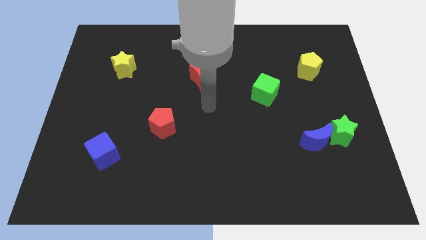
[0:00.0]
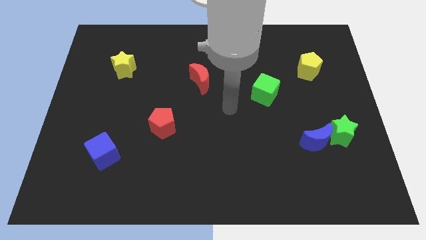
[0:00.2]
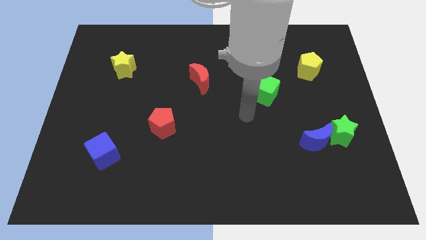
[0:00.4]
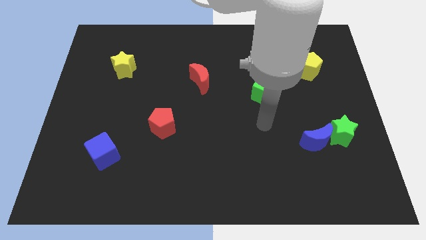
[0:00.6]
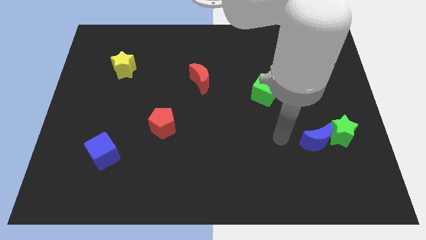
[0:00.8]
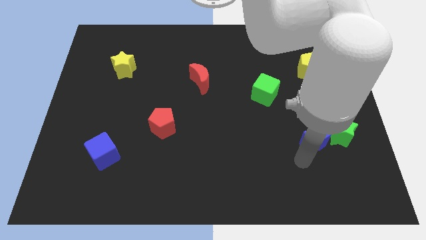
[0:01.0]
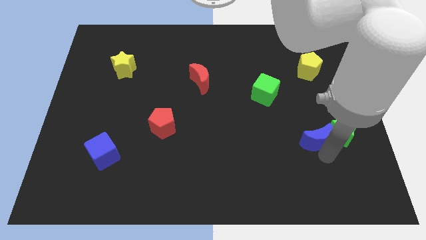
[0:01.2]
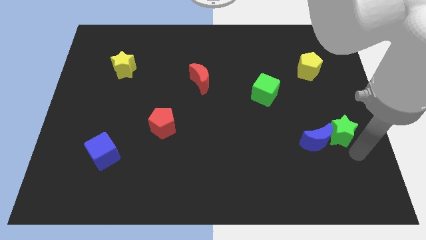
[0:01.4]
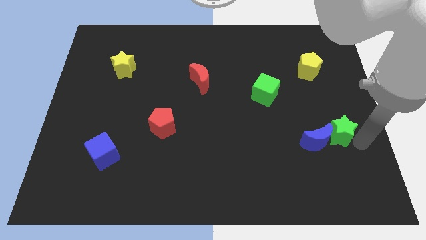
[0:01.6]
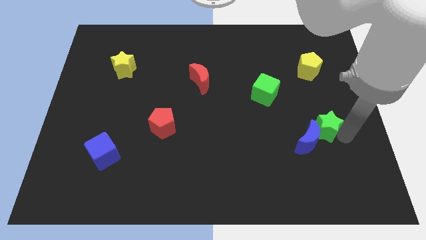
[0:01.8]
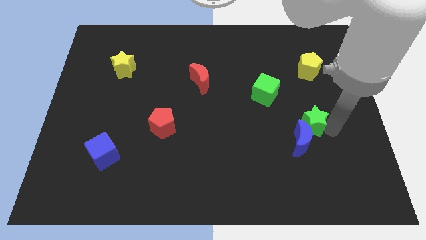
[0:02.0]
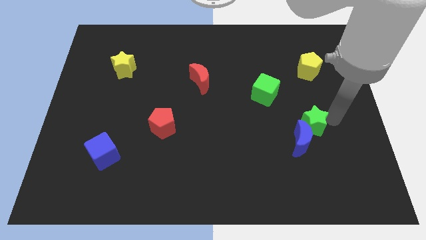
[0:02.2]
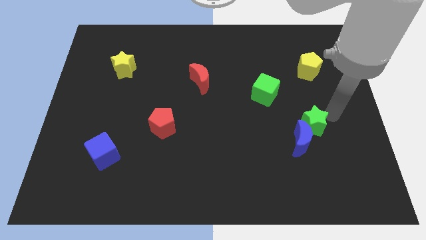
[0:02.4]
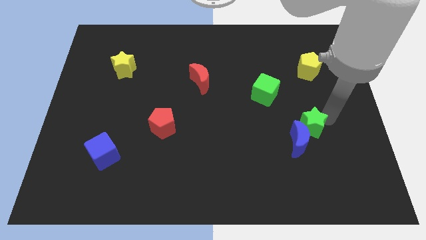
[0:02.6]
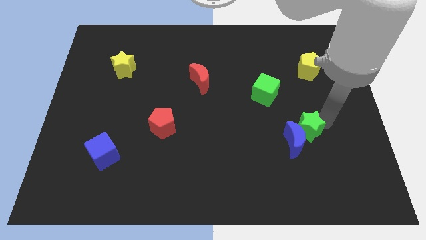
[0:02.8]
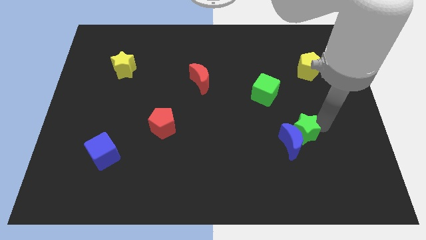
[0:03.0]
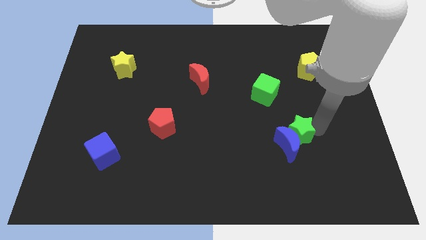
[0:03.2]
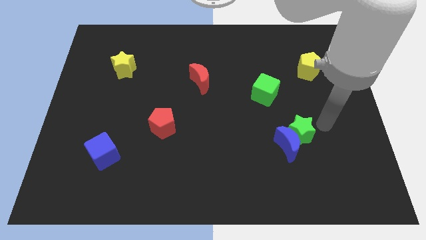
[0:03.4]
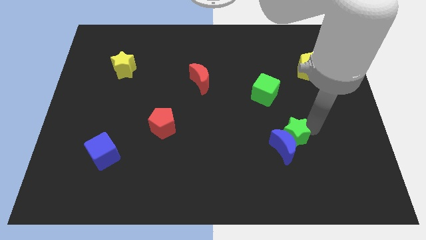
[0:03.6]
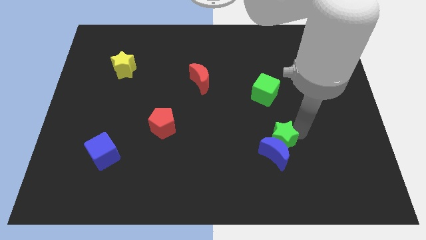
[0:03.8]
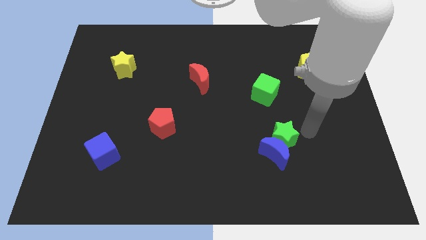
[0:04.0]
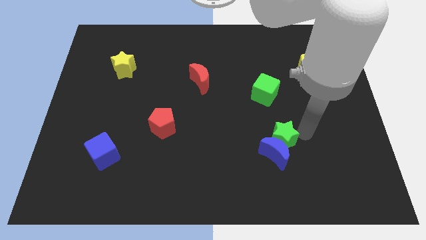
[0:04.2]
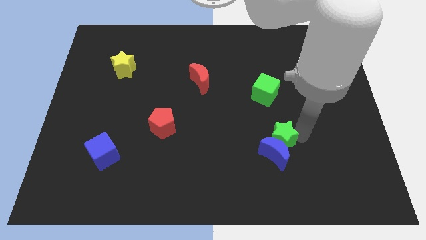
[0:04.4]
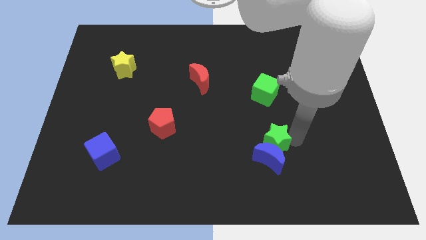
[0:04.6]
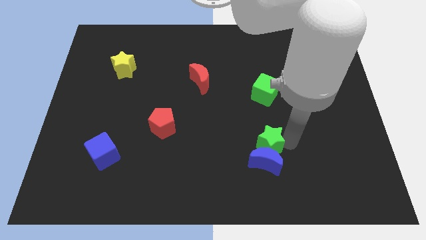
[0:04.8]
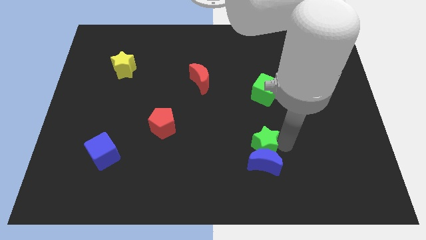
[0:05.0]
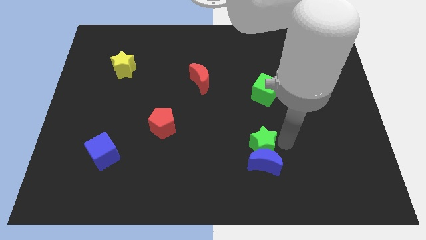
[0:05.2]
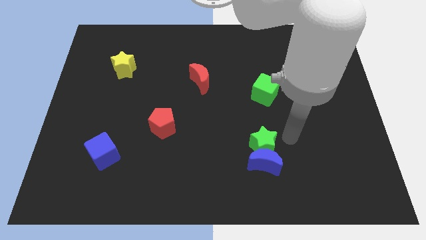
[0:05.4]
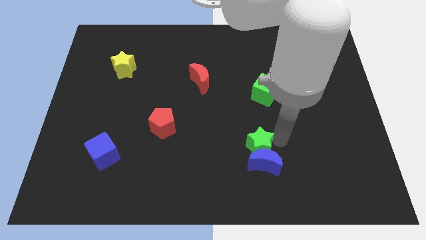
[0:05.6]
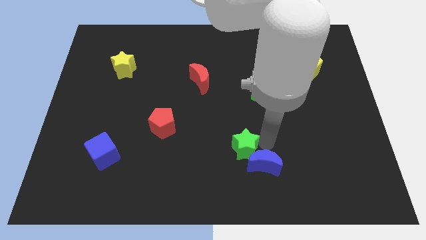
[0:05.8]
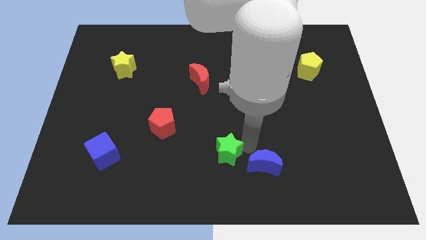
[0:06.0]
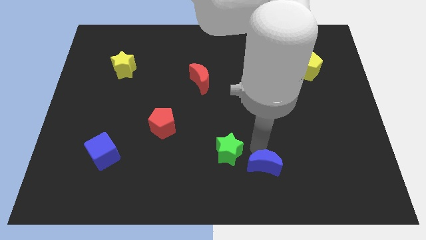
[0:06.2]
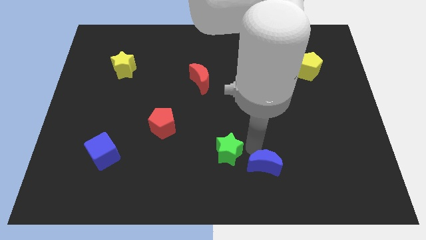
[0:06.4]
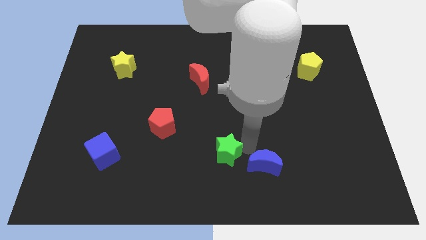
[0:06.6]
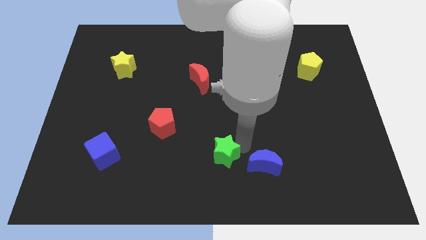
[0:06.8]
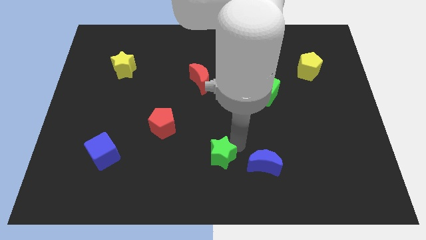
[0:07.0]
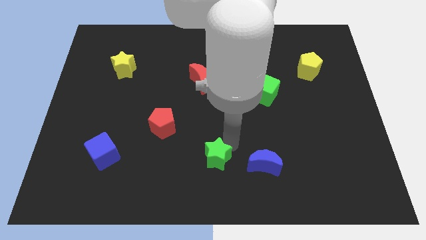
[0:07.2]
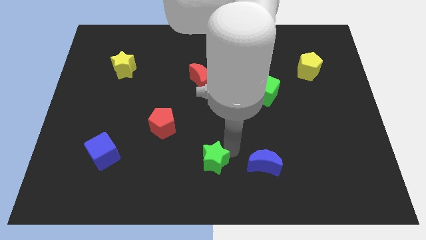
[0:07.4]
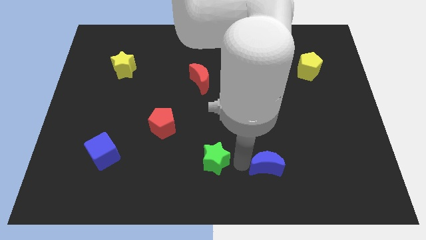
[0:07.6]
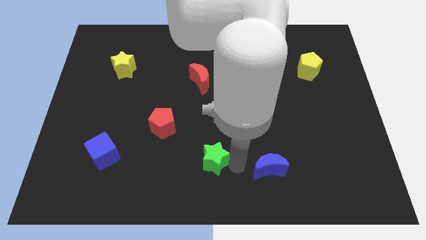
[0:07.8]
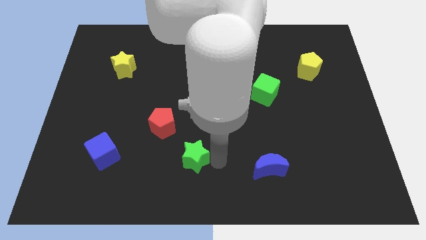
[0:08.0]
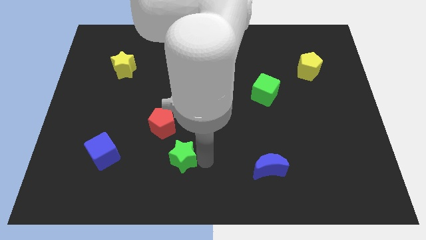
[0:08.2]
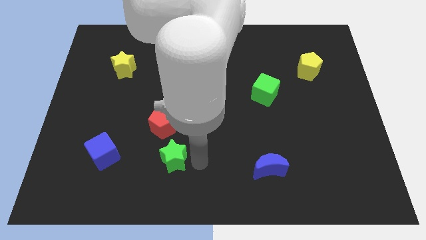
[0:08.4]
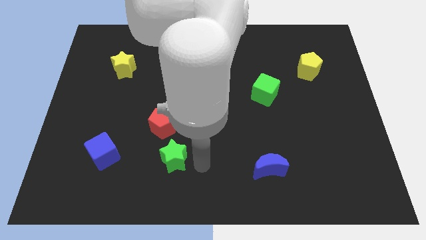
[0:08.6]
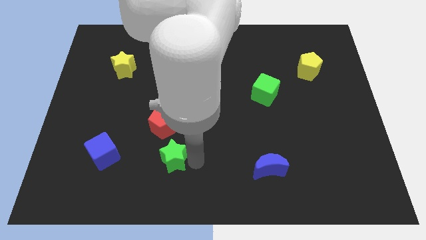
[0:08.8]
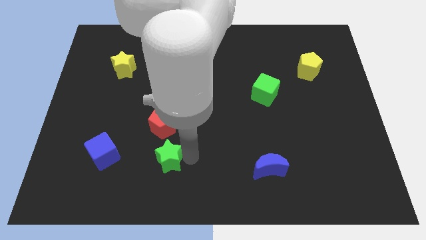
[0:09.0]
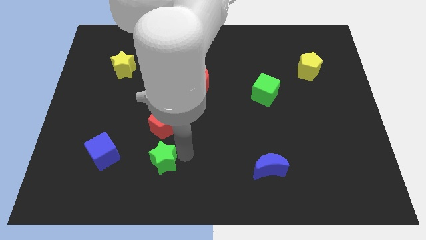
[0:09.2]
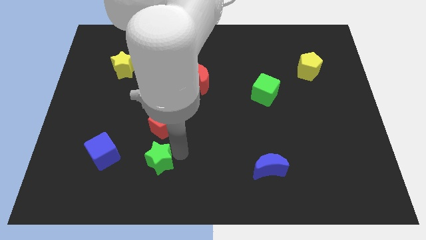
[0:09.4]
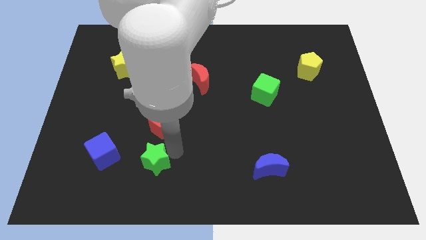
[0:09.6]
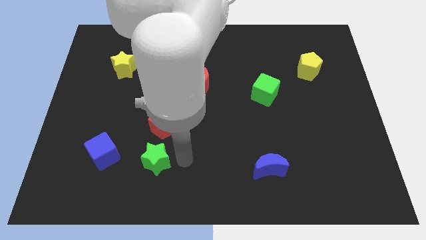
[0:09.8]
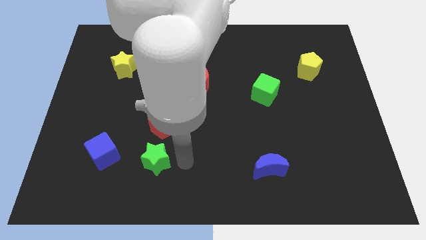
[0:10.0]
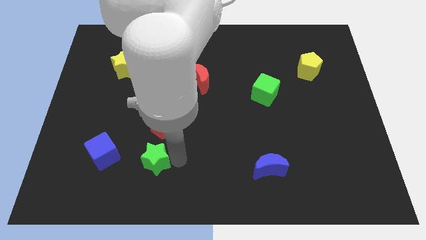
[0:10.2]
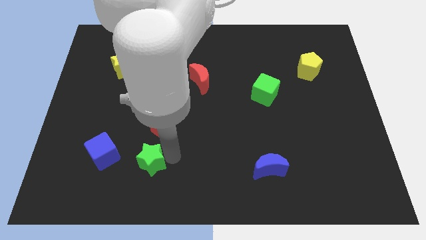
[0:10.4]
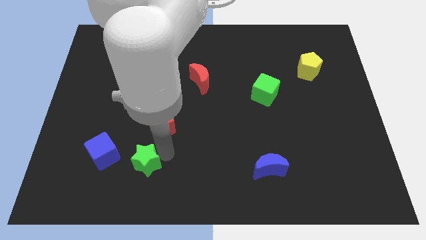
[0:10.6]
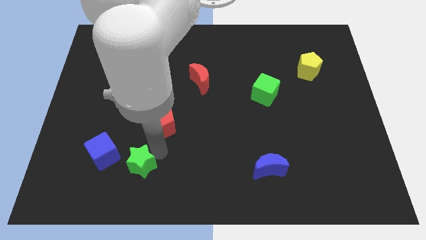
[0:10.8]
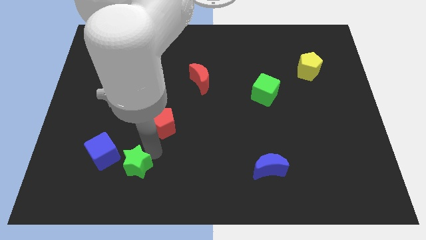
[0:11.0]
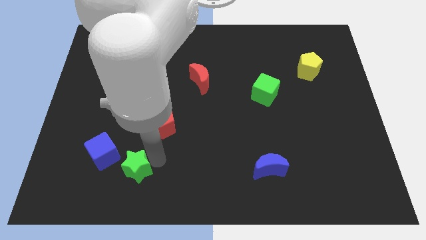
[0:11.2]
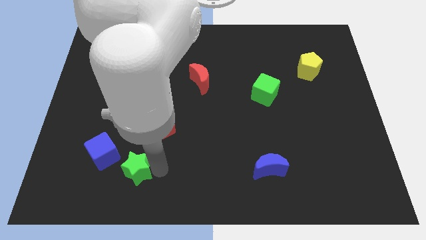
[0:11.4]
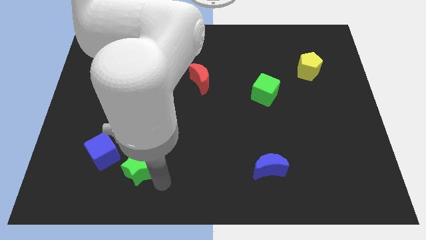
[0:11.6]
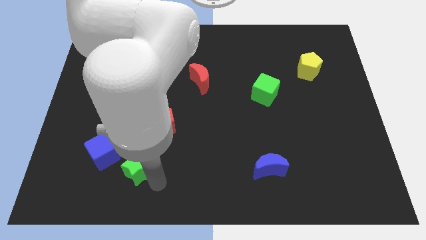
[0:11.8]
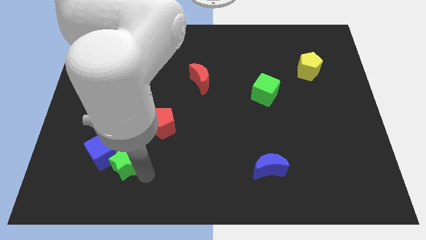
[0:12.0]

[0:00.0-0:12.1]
push the green star towards the blue cube

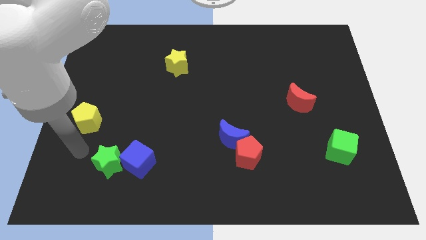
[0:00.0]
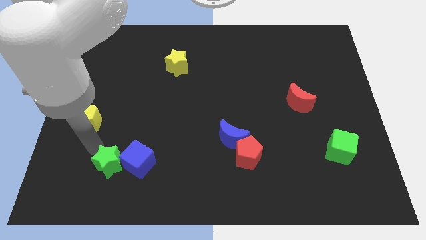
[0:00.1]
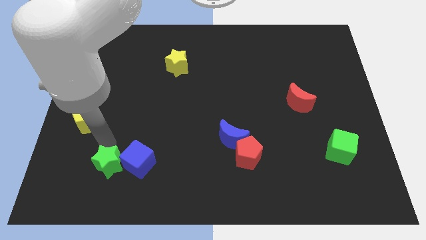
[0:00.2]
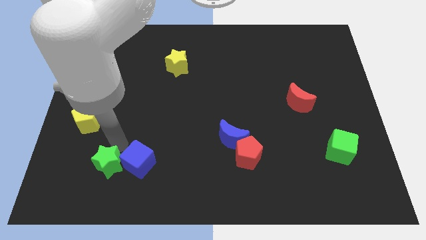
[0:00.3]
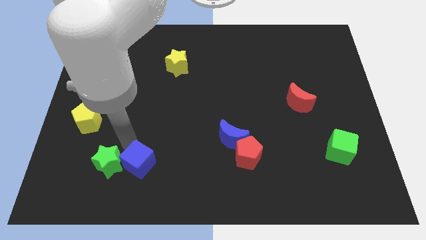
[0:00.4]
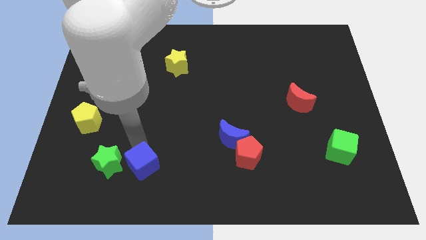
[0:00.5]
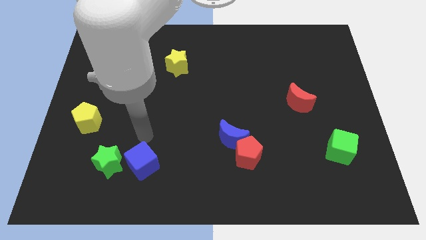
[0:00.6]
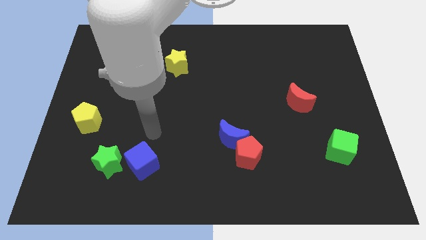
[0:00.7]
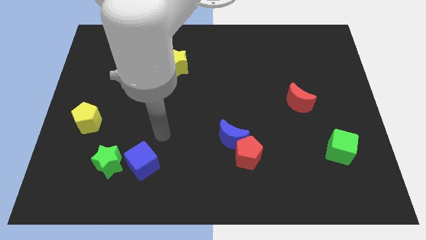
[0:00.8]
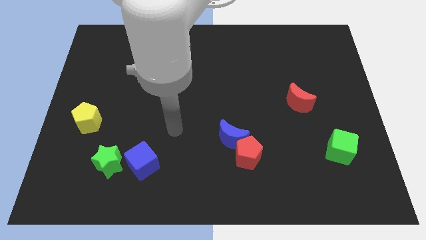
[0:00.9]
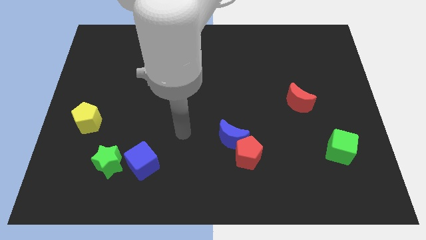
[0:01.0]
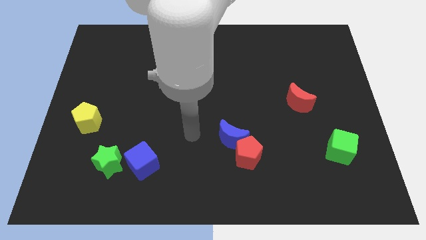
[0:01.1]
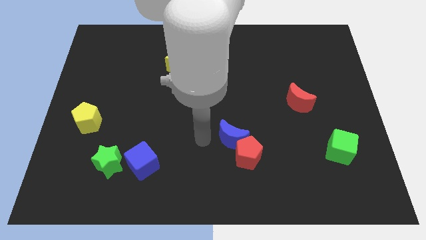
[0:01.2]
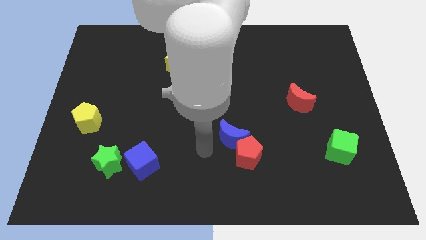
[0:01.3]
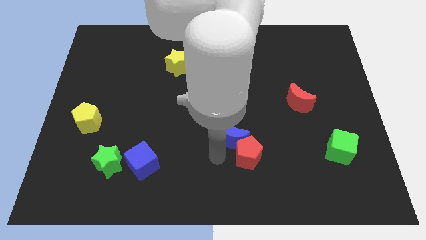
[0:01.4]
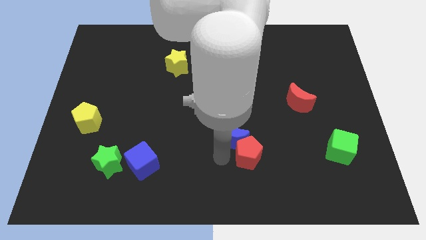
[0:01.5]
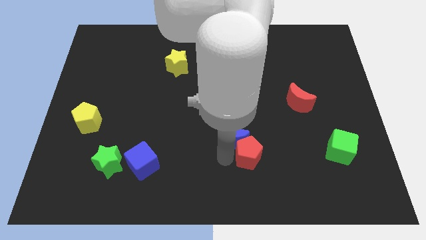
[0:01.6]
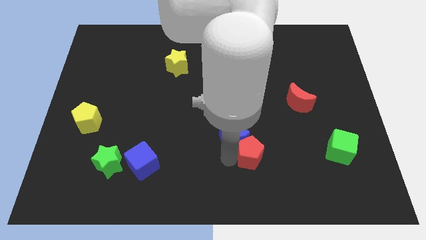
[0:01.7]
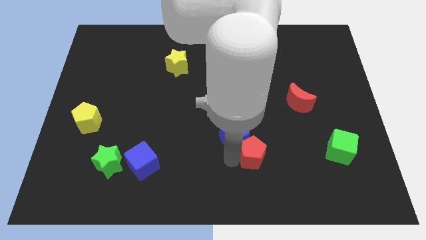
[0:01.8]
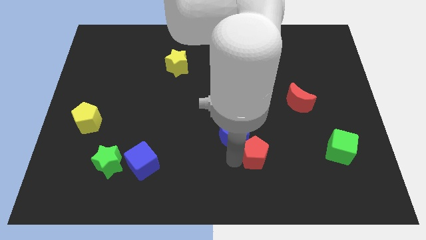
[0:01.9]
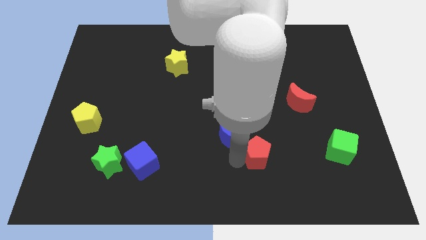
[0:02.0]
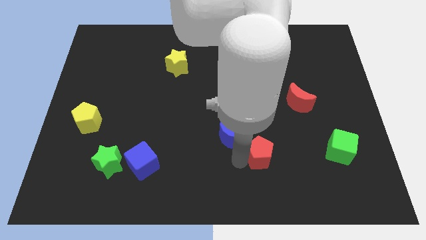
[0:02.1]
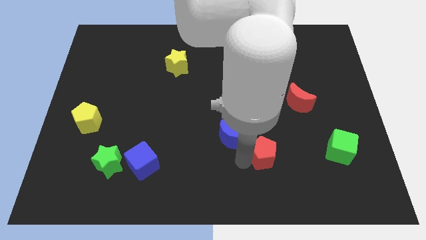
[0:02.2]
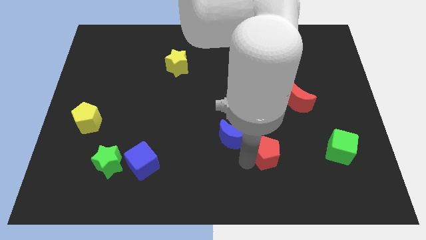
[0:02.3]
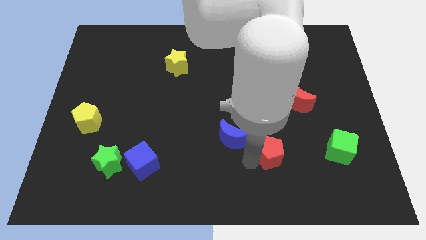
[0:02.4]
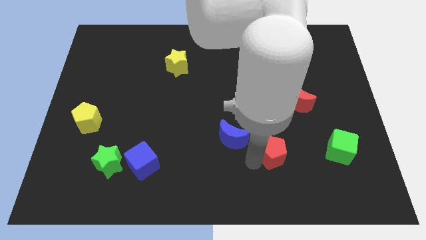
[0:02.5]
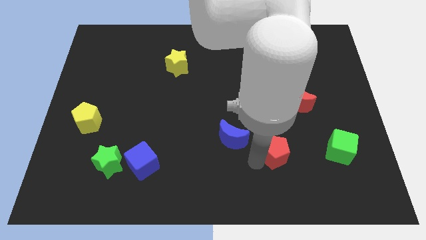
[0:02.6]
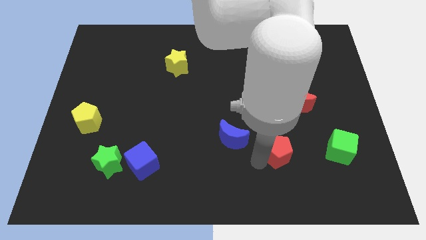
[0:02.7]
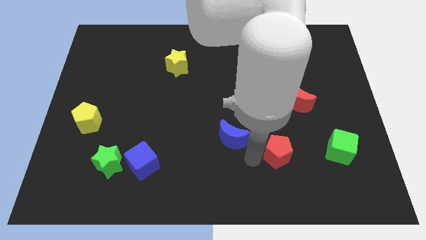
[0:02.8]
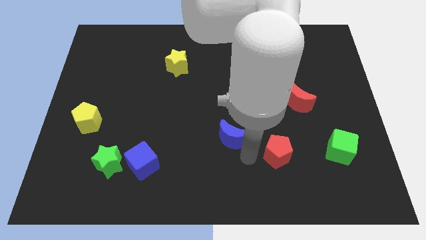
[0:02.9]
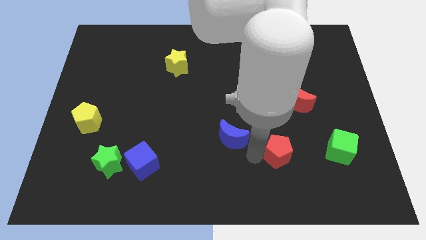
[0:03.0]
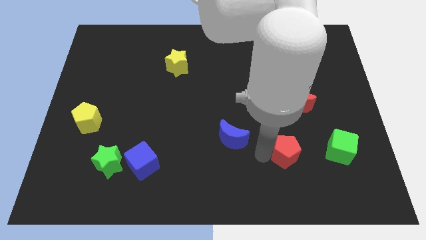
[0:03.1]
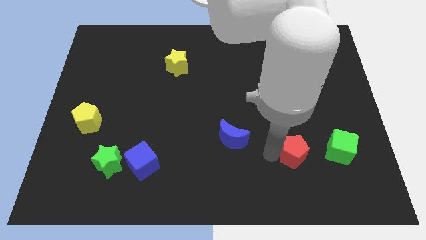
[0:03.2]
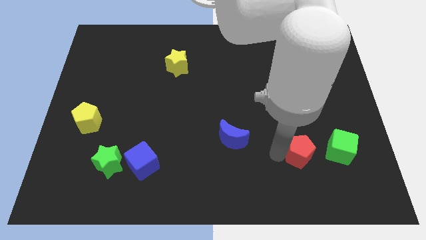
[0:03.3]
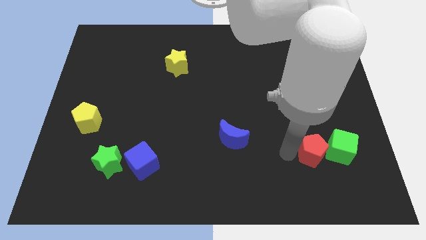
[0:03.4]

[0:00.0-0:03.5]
put the red pentagon next to the green cube
